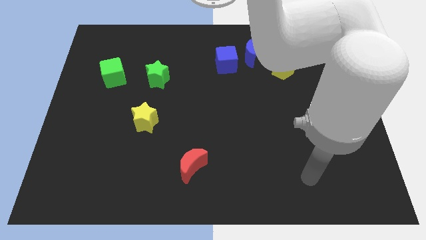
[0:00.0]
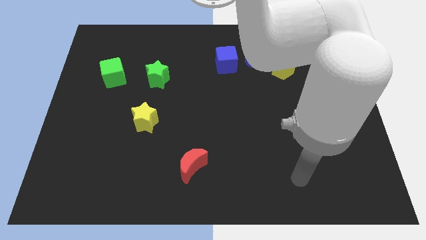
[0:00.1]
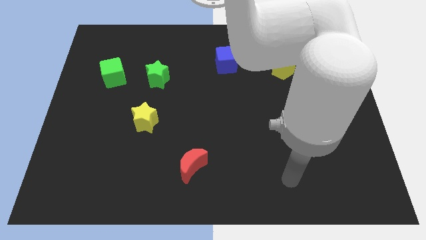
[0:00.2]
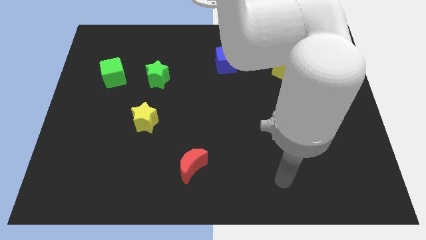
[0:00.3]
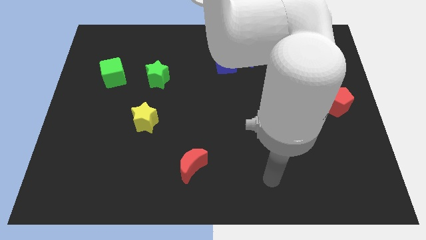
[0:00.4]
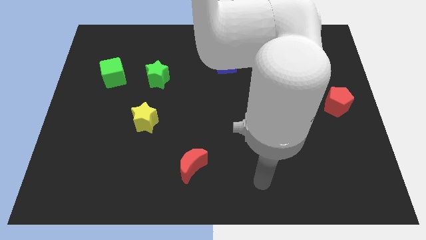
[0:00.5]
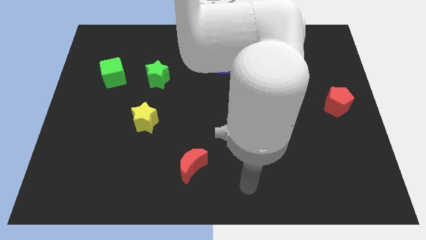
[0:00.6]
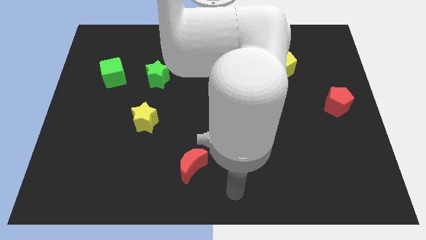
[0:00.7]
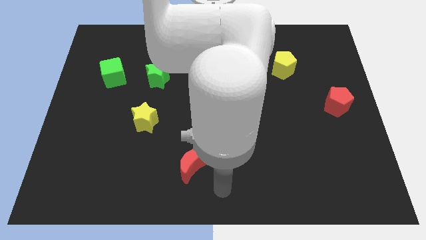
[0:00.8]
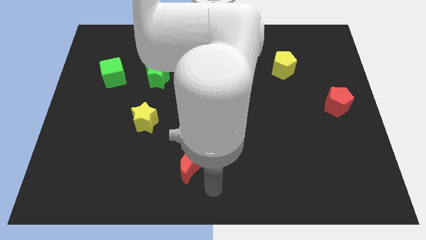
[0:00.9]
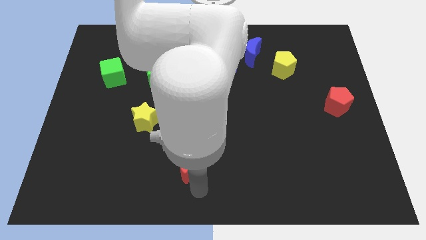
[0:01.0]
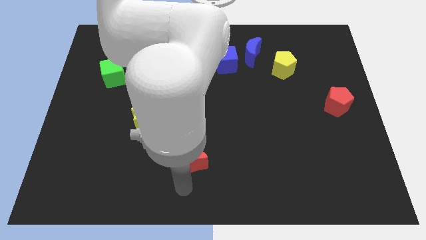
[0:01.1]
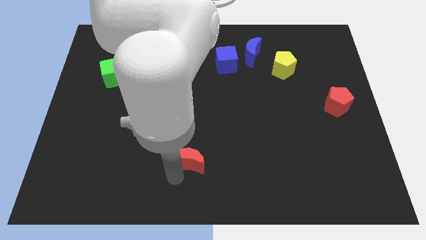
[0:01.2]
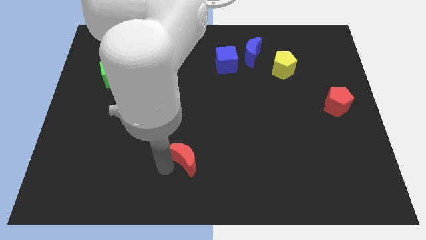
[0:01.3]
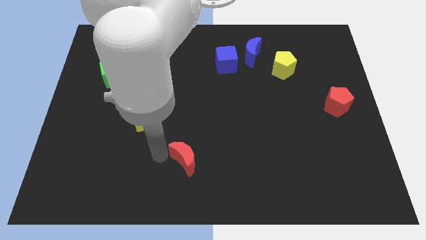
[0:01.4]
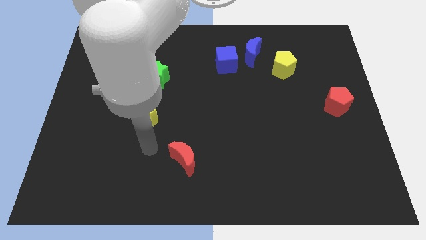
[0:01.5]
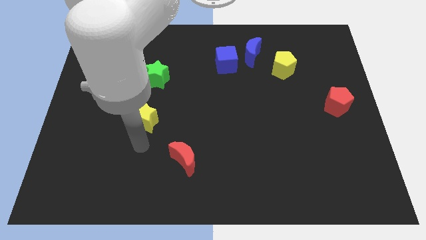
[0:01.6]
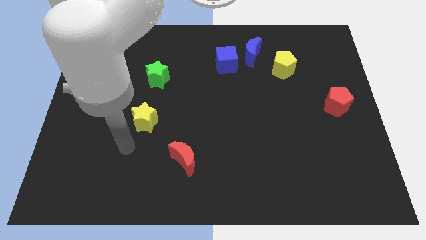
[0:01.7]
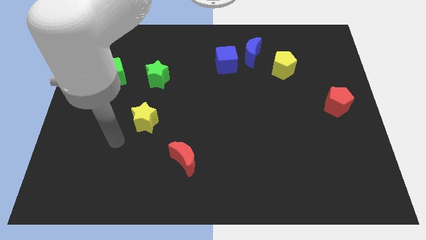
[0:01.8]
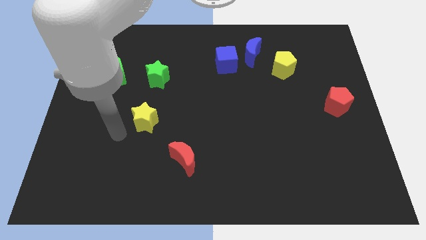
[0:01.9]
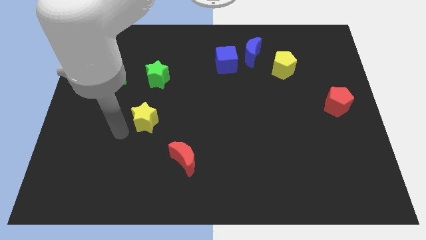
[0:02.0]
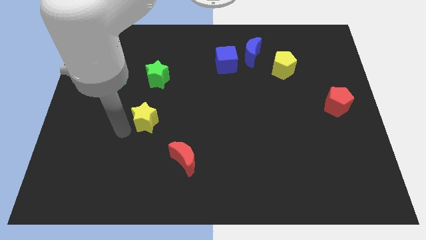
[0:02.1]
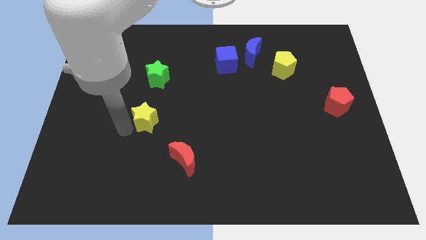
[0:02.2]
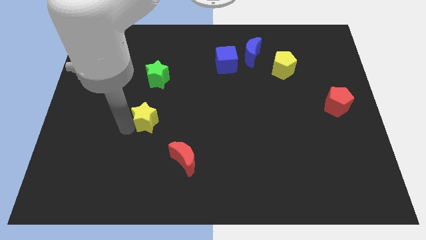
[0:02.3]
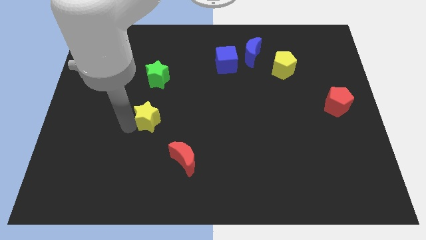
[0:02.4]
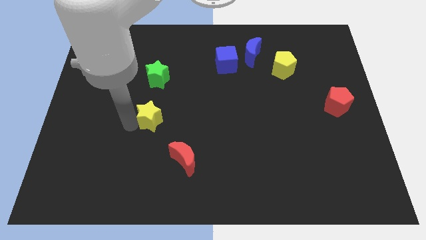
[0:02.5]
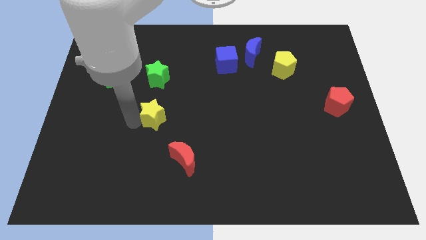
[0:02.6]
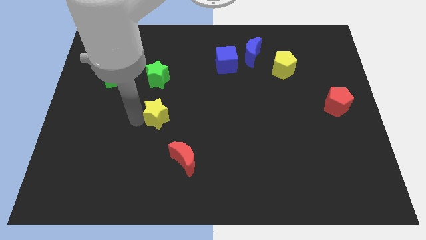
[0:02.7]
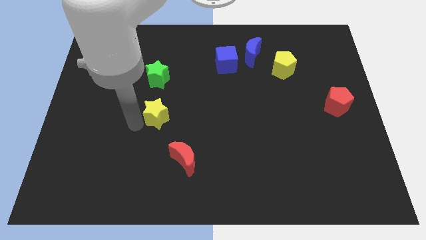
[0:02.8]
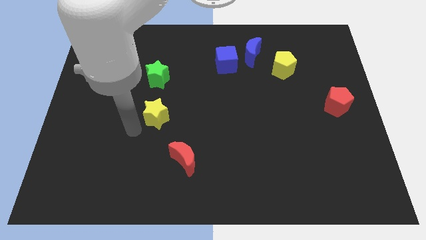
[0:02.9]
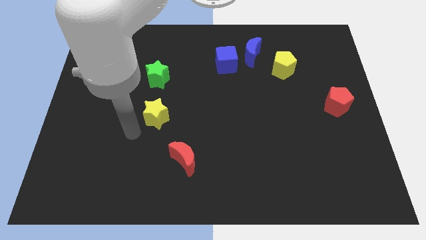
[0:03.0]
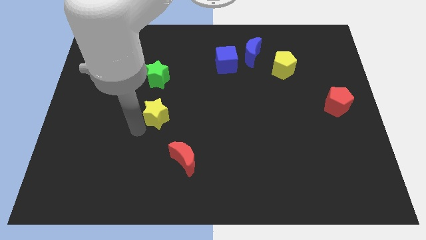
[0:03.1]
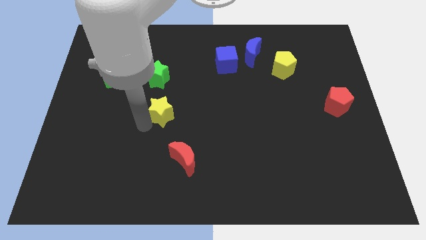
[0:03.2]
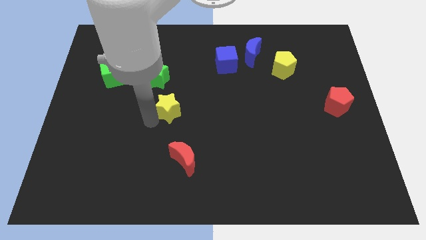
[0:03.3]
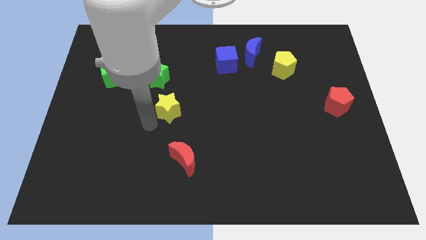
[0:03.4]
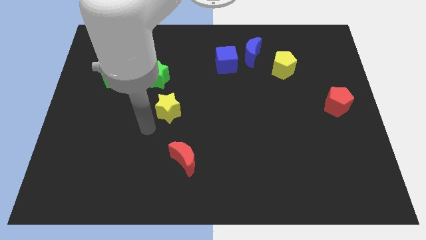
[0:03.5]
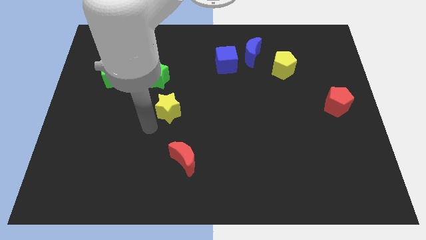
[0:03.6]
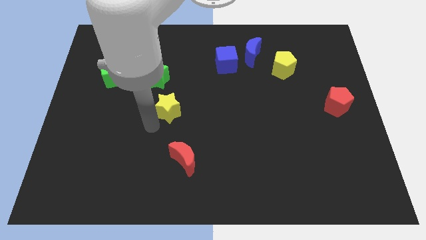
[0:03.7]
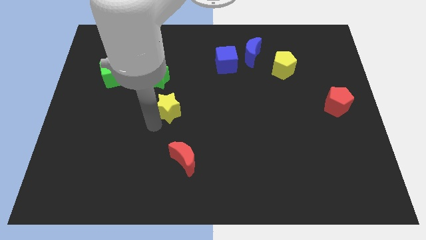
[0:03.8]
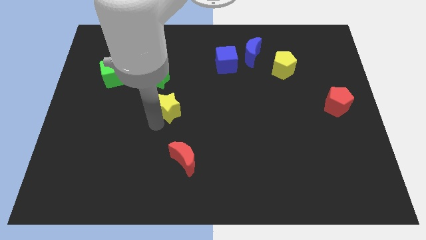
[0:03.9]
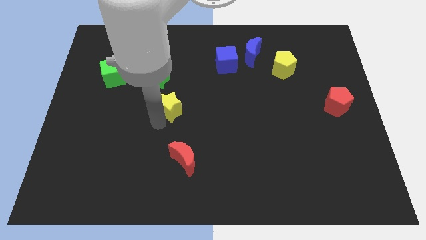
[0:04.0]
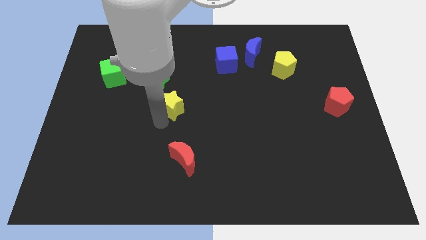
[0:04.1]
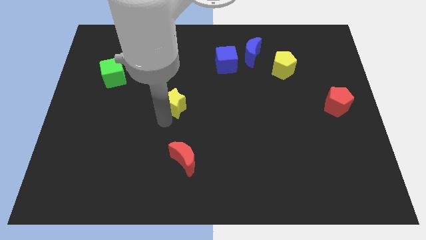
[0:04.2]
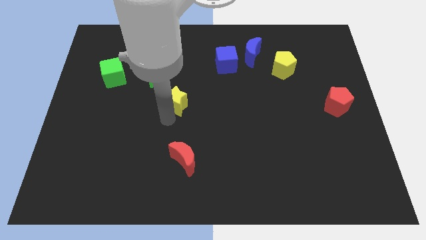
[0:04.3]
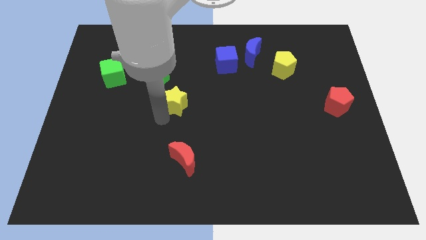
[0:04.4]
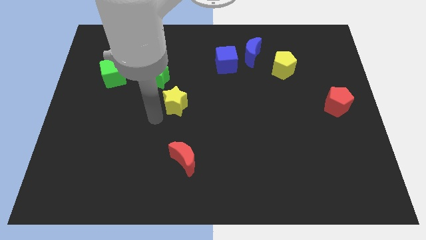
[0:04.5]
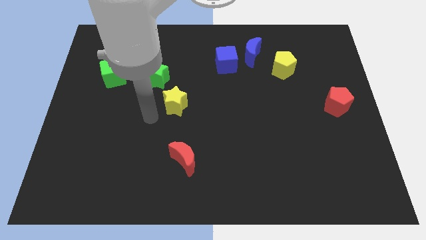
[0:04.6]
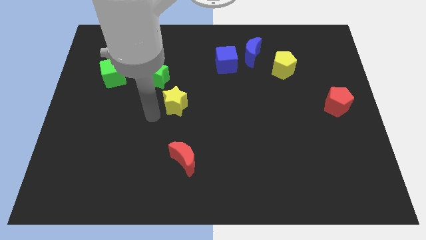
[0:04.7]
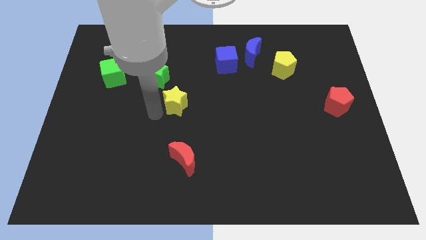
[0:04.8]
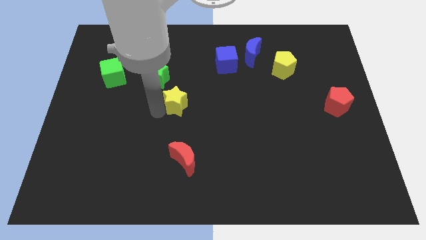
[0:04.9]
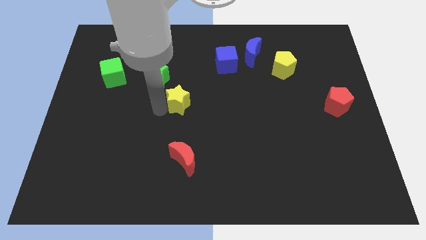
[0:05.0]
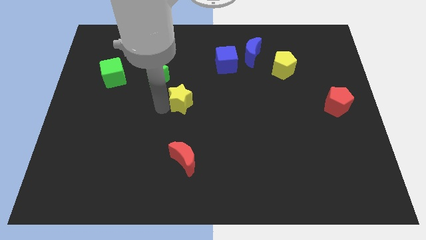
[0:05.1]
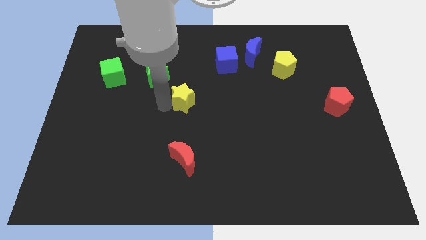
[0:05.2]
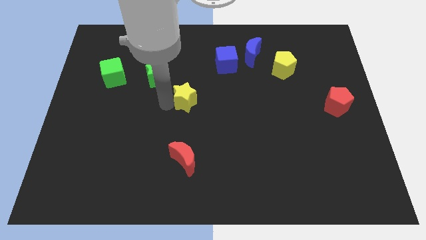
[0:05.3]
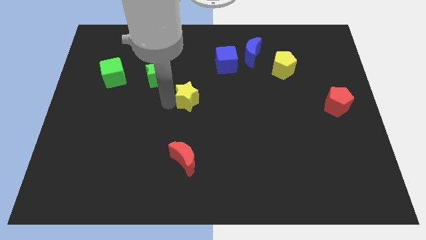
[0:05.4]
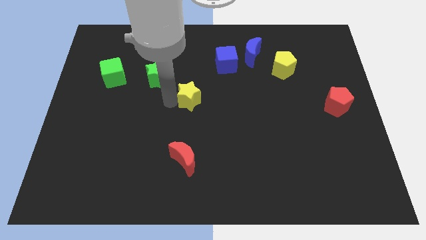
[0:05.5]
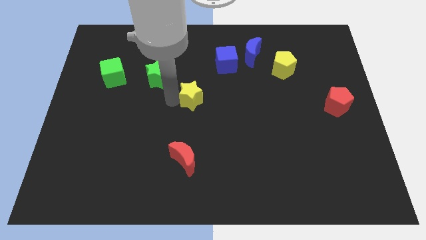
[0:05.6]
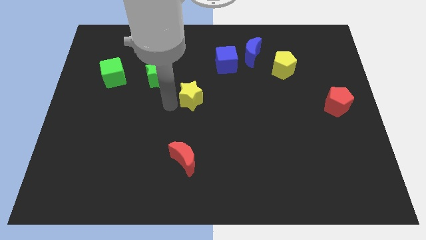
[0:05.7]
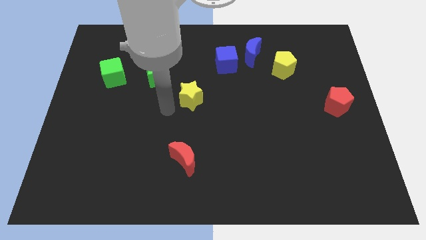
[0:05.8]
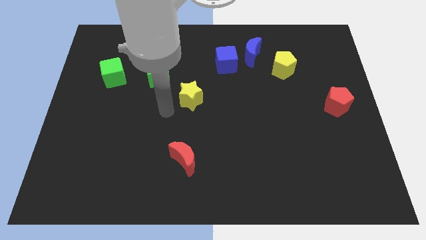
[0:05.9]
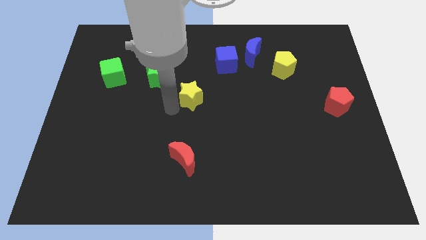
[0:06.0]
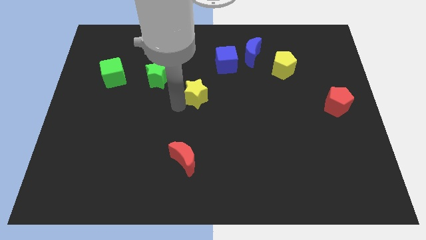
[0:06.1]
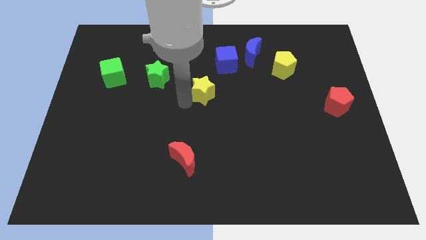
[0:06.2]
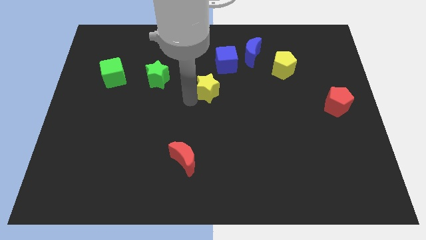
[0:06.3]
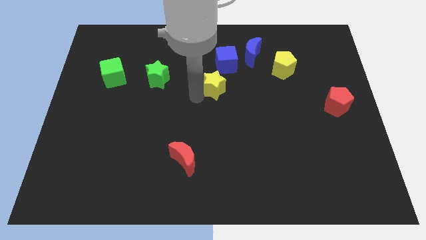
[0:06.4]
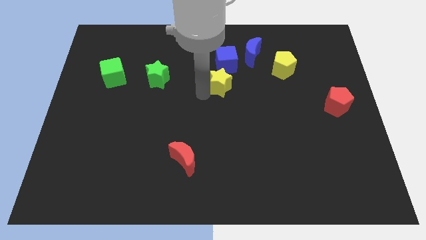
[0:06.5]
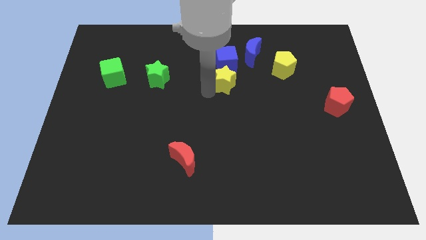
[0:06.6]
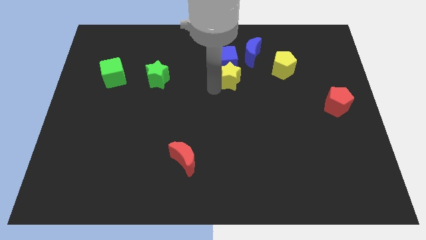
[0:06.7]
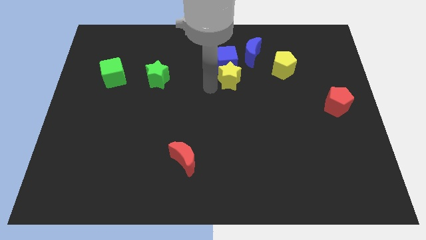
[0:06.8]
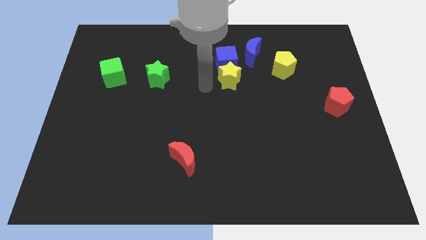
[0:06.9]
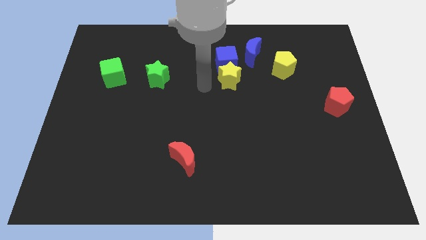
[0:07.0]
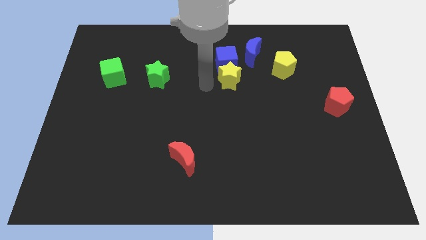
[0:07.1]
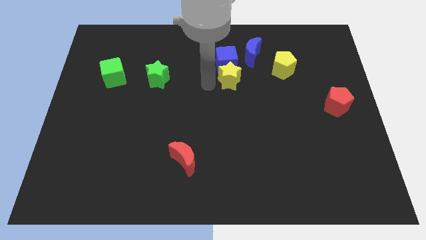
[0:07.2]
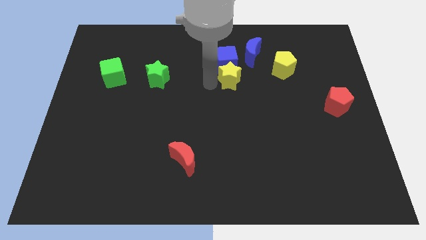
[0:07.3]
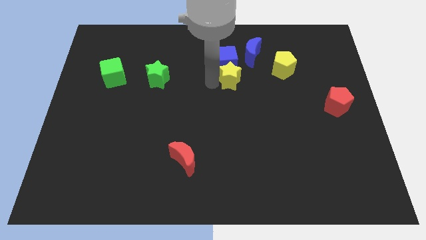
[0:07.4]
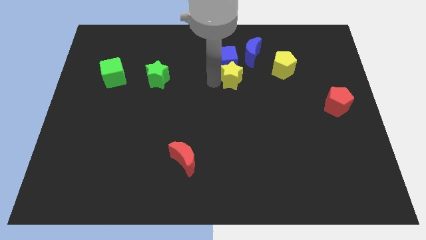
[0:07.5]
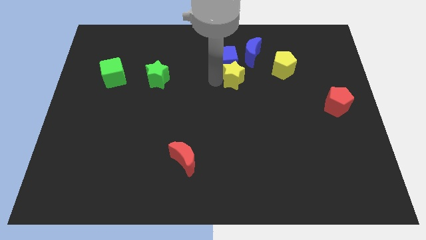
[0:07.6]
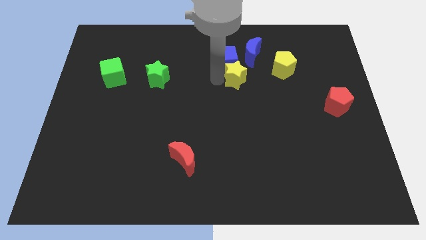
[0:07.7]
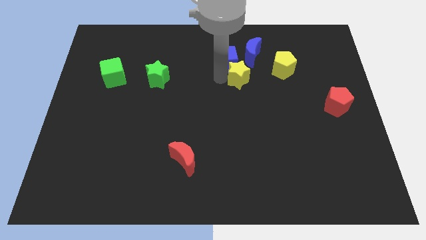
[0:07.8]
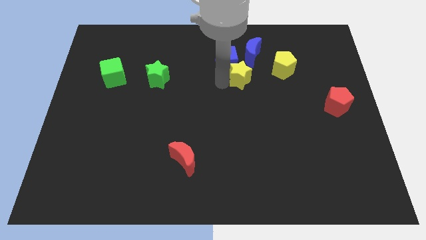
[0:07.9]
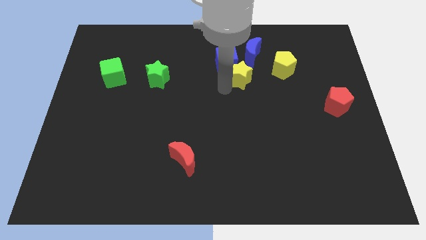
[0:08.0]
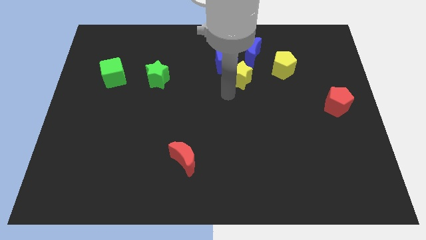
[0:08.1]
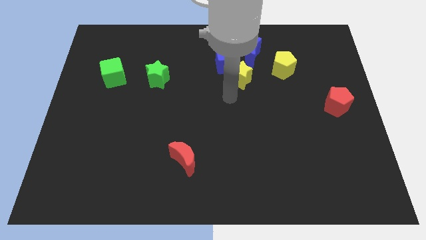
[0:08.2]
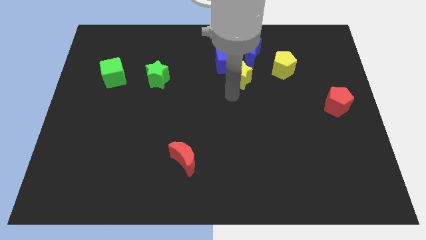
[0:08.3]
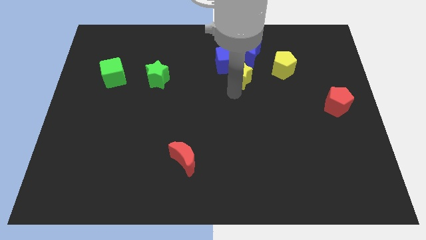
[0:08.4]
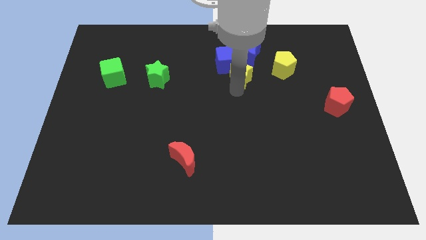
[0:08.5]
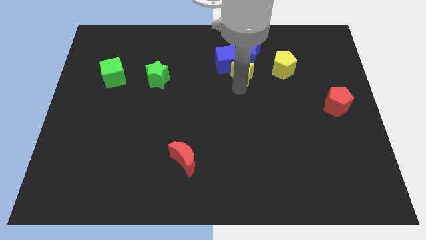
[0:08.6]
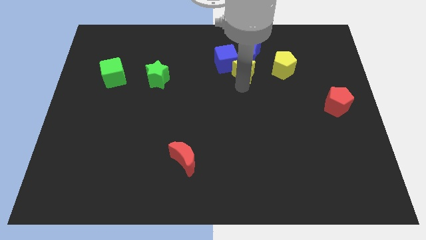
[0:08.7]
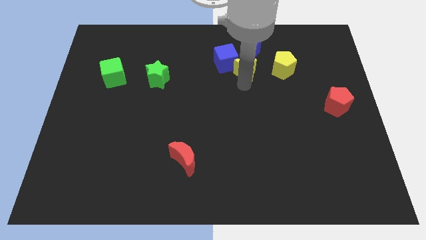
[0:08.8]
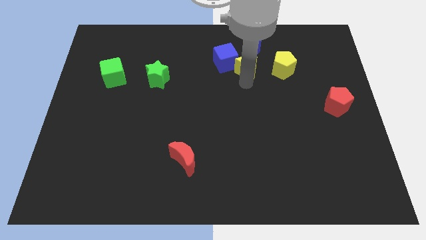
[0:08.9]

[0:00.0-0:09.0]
push the yellow star to the blue moon
